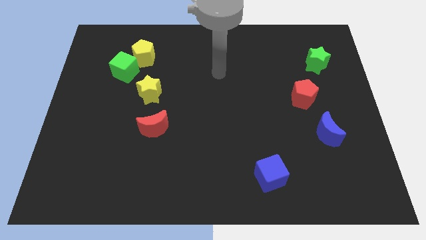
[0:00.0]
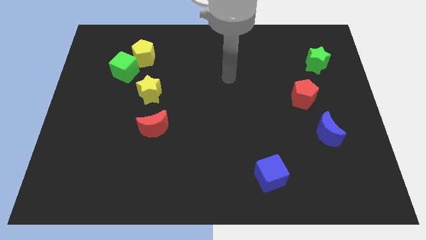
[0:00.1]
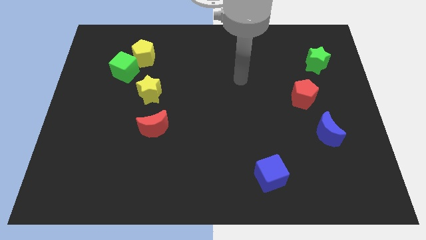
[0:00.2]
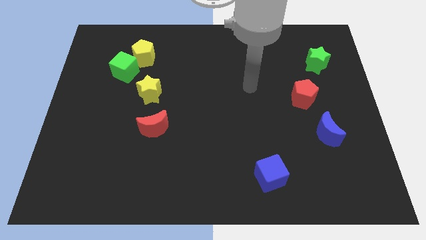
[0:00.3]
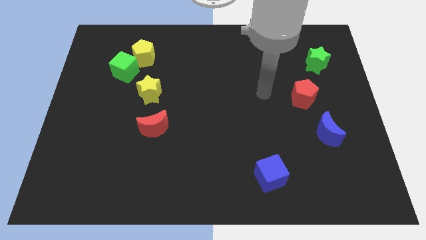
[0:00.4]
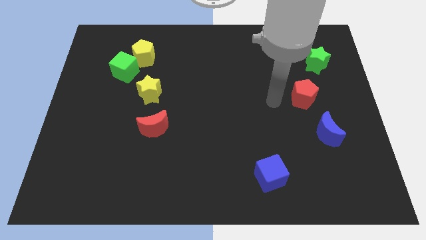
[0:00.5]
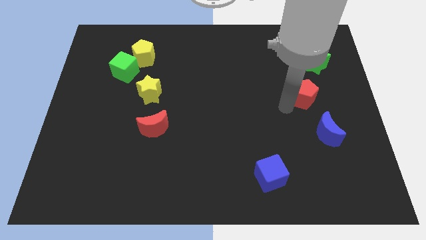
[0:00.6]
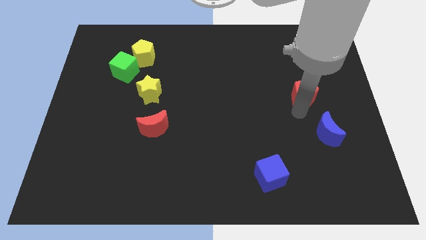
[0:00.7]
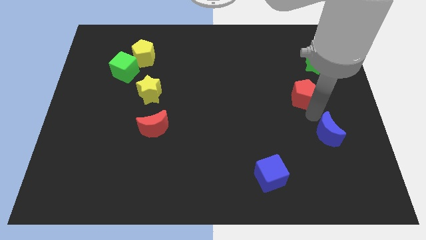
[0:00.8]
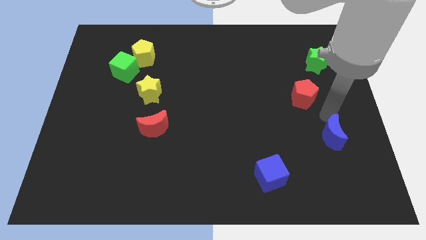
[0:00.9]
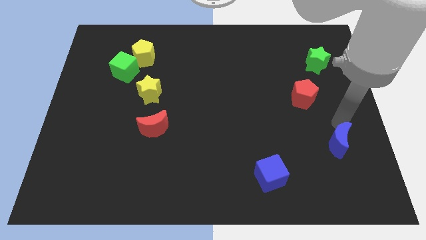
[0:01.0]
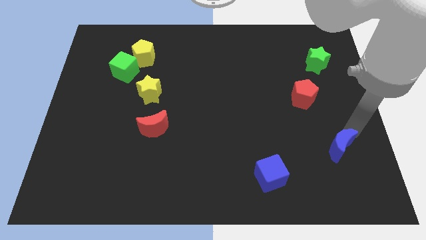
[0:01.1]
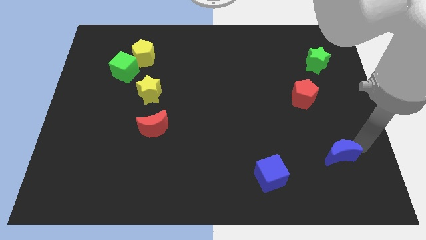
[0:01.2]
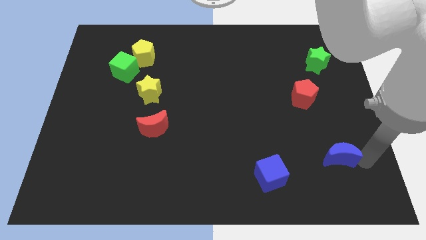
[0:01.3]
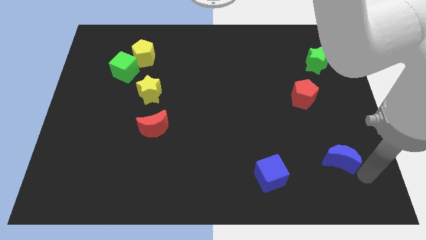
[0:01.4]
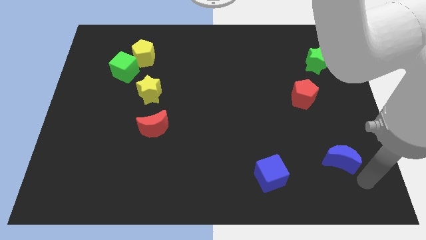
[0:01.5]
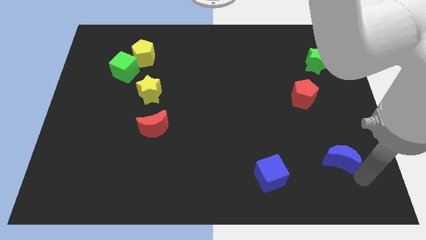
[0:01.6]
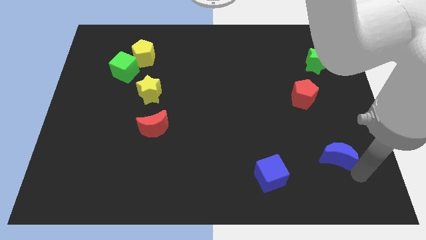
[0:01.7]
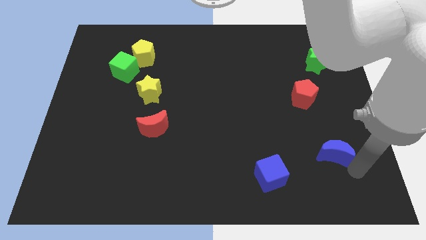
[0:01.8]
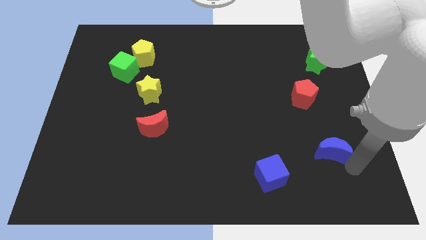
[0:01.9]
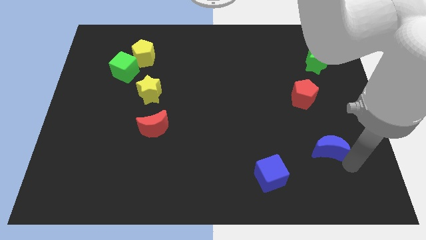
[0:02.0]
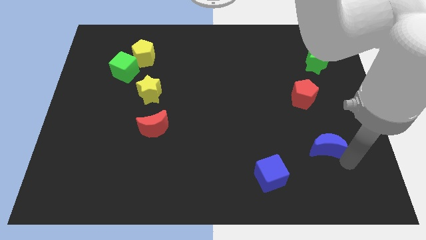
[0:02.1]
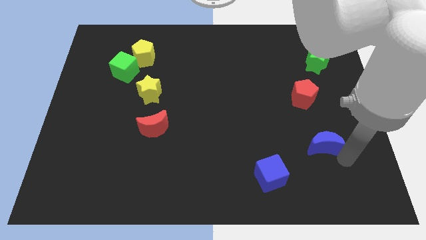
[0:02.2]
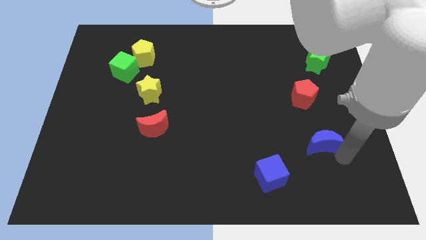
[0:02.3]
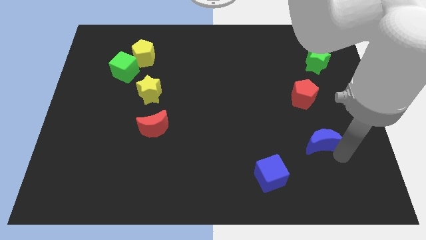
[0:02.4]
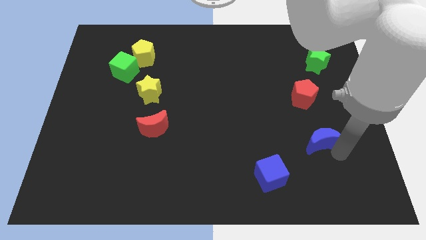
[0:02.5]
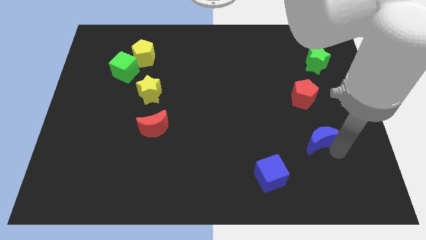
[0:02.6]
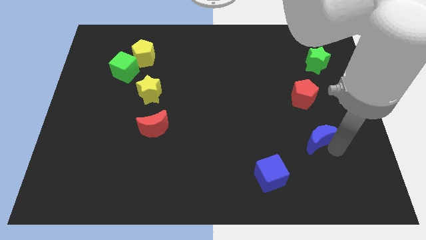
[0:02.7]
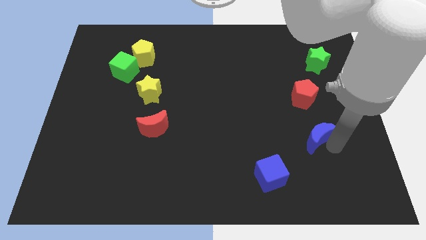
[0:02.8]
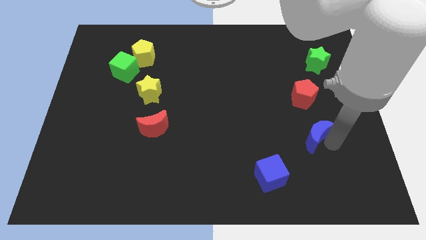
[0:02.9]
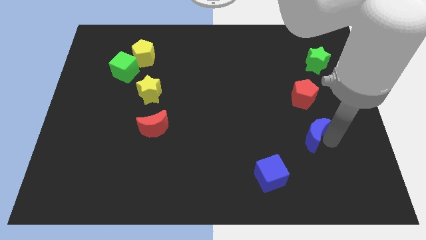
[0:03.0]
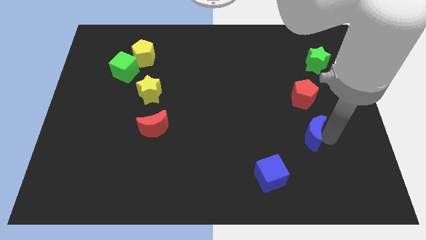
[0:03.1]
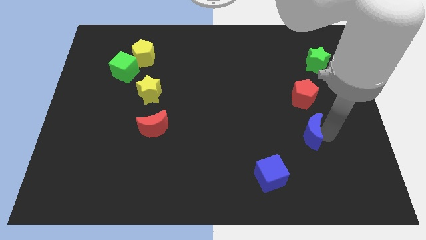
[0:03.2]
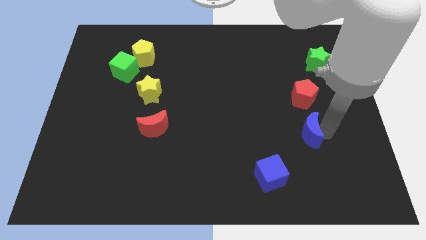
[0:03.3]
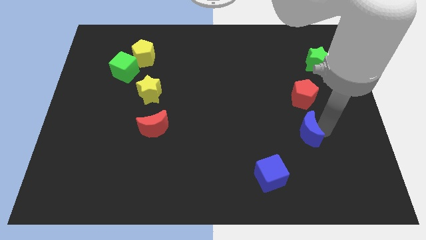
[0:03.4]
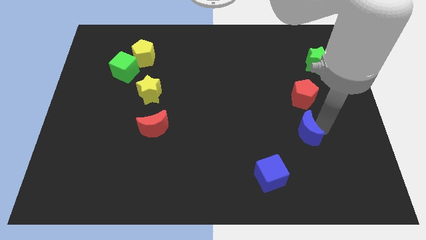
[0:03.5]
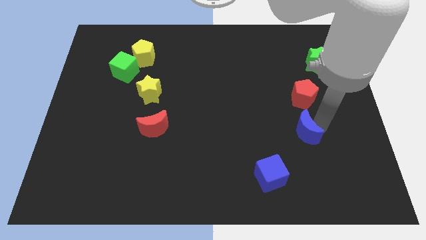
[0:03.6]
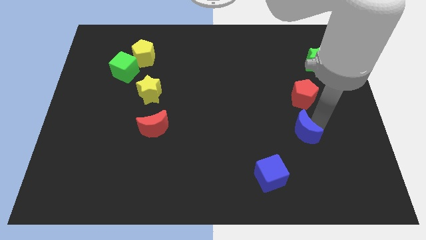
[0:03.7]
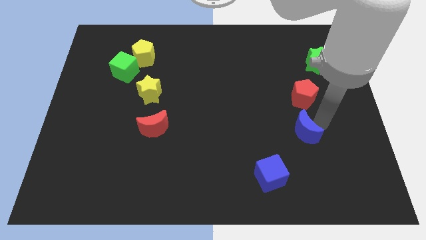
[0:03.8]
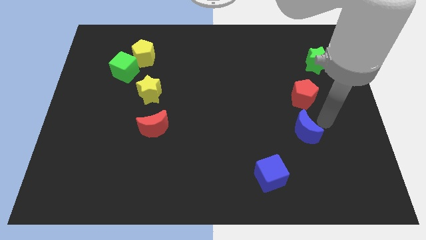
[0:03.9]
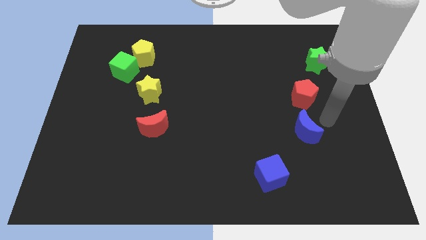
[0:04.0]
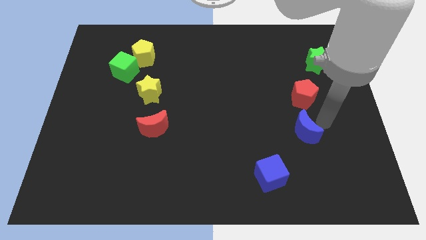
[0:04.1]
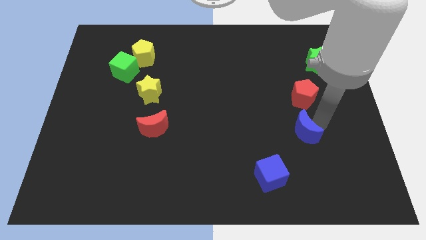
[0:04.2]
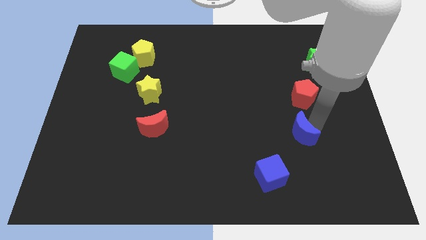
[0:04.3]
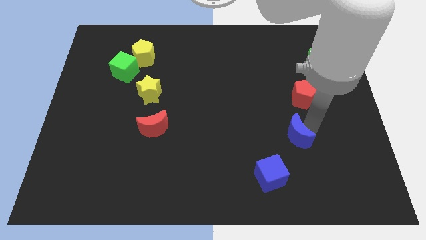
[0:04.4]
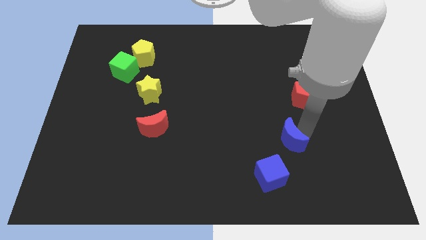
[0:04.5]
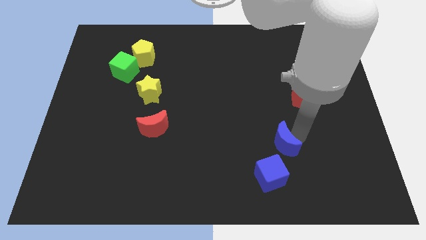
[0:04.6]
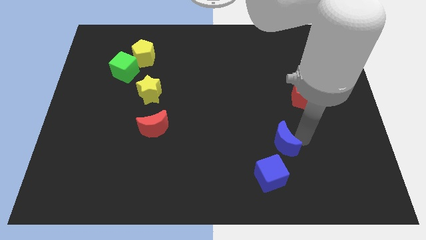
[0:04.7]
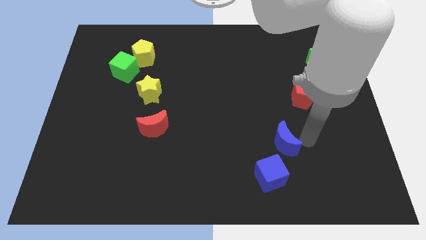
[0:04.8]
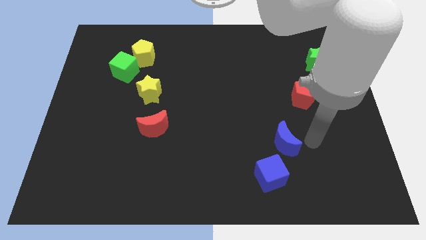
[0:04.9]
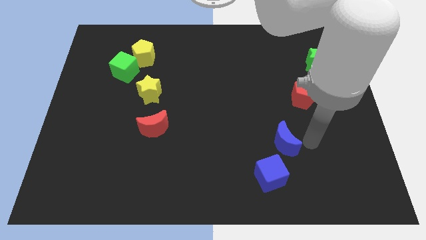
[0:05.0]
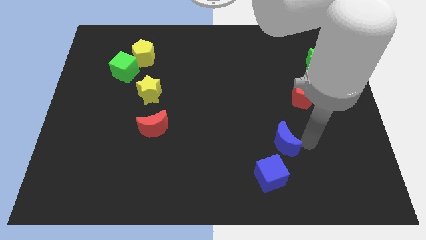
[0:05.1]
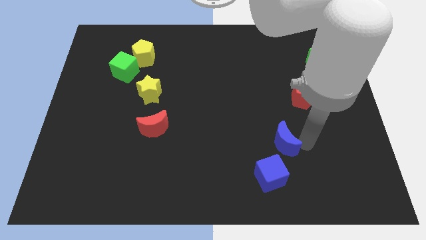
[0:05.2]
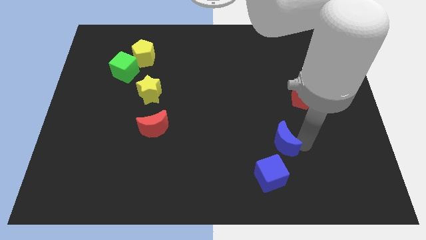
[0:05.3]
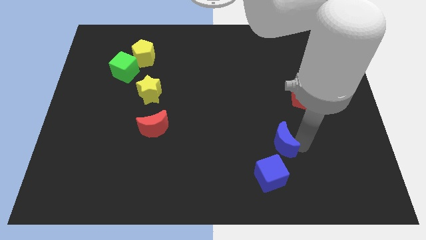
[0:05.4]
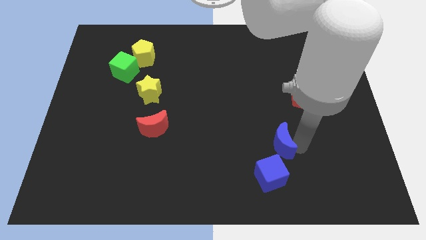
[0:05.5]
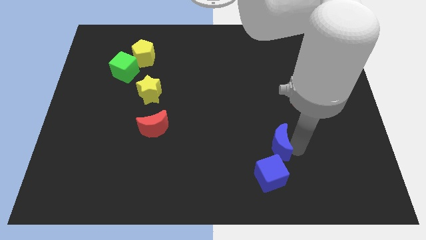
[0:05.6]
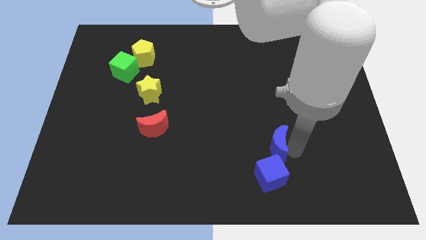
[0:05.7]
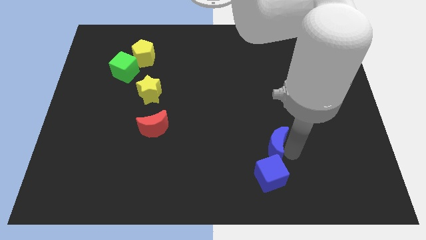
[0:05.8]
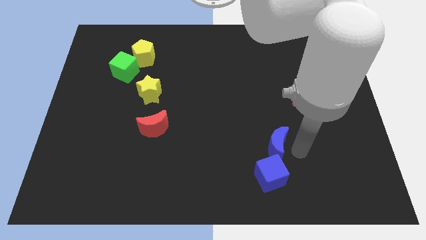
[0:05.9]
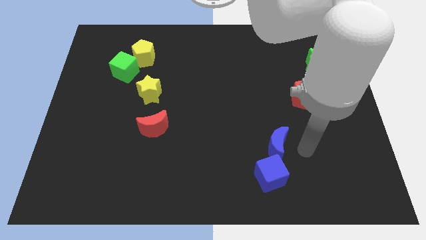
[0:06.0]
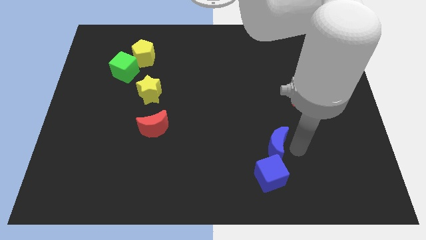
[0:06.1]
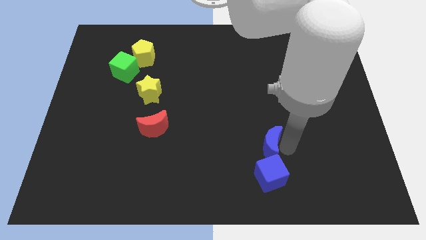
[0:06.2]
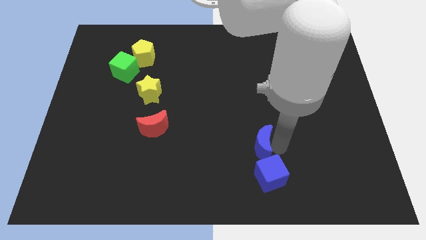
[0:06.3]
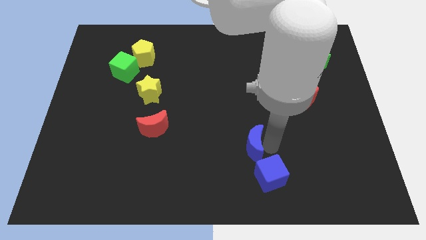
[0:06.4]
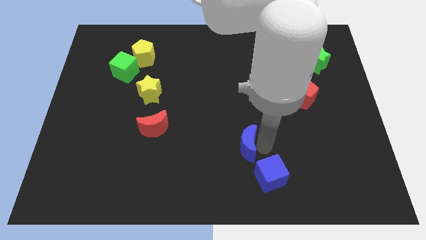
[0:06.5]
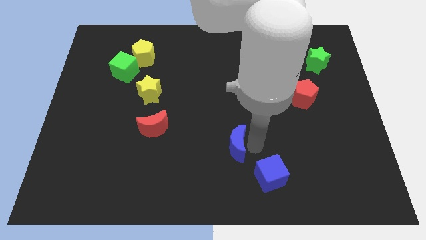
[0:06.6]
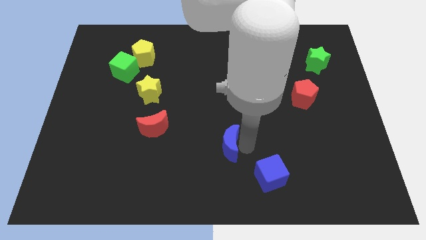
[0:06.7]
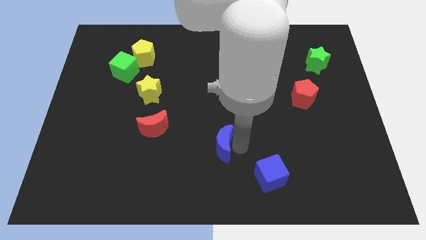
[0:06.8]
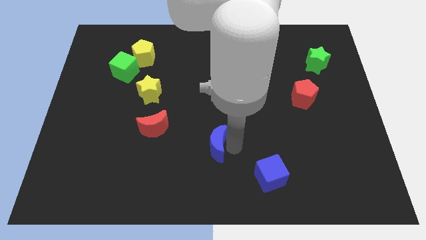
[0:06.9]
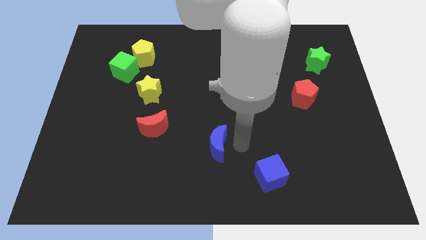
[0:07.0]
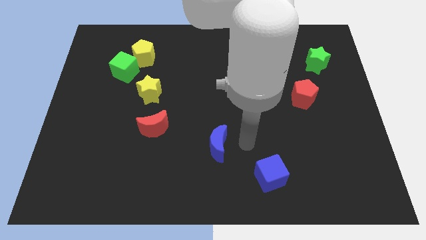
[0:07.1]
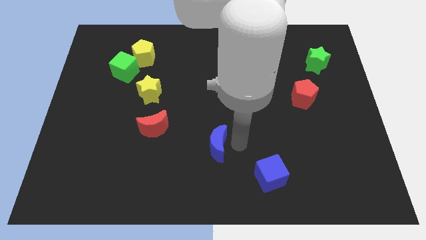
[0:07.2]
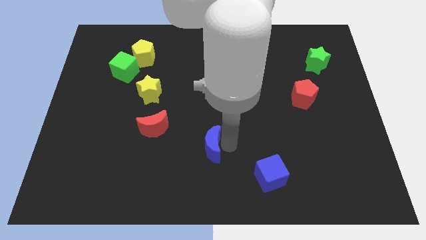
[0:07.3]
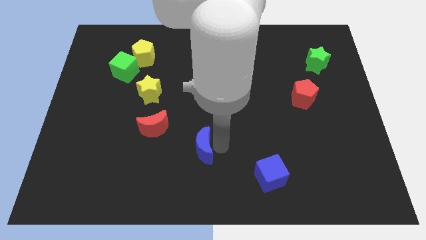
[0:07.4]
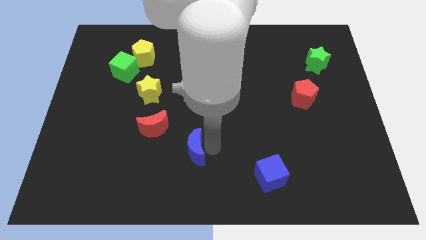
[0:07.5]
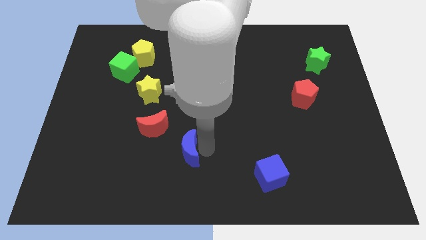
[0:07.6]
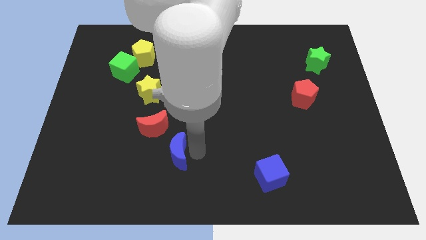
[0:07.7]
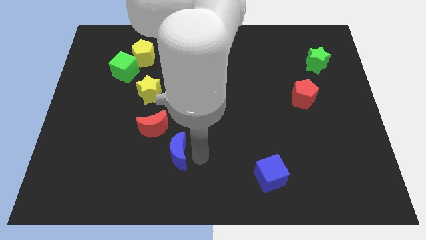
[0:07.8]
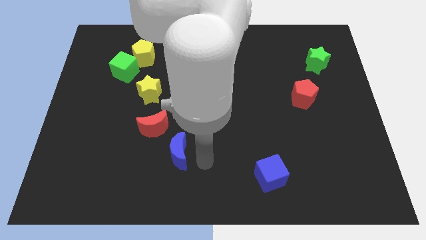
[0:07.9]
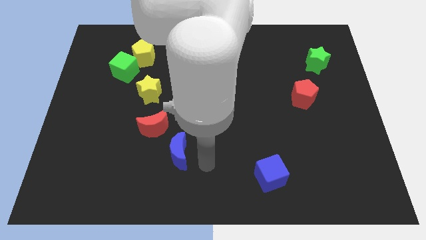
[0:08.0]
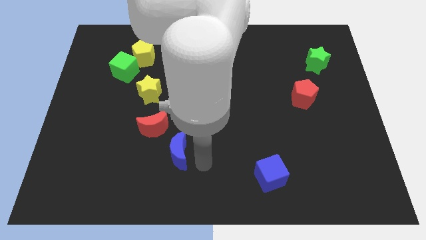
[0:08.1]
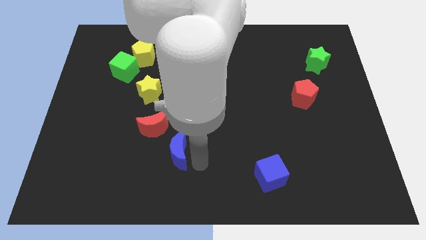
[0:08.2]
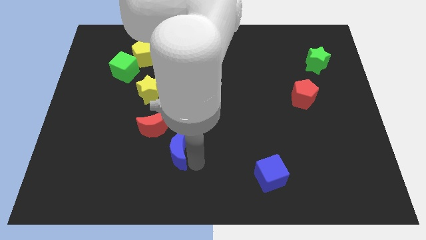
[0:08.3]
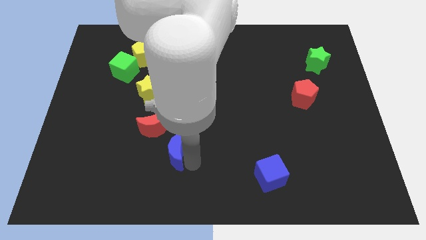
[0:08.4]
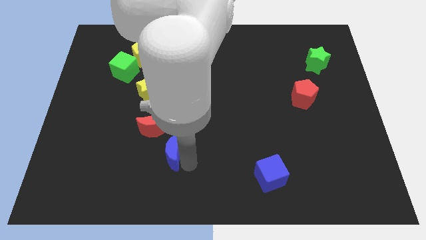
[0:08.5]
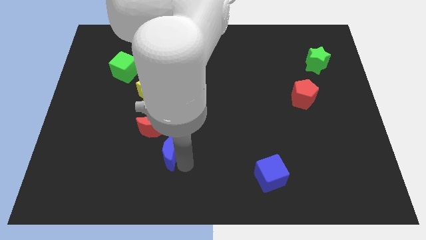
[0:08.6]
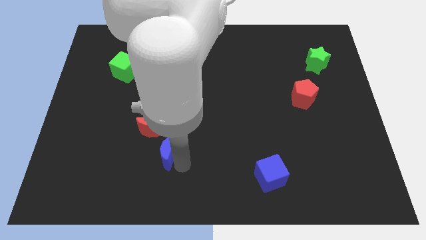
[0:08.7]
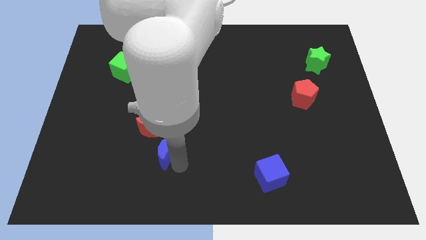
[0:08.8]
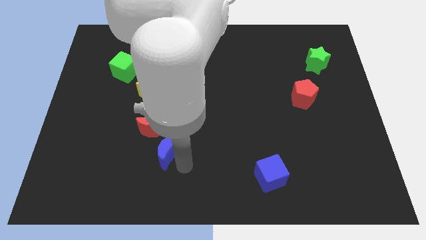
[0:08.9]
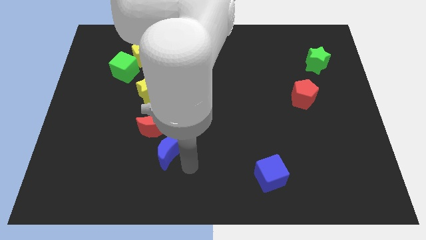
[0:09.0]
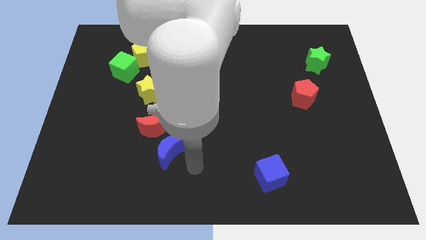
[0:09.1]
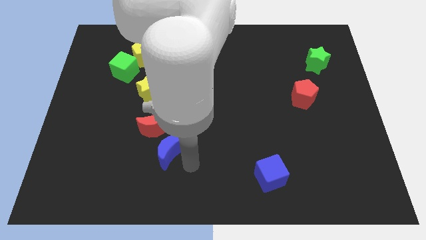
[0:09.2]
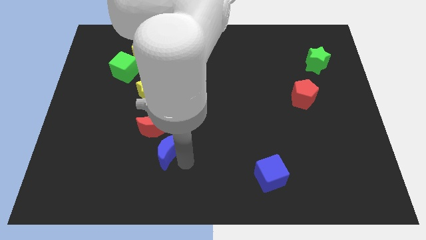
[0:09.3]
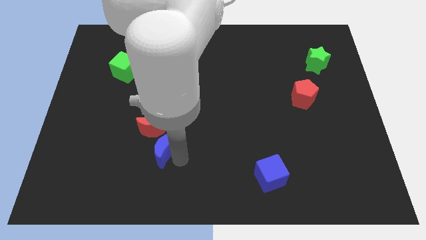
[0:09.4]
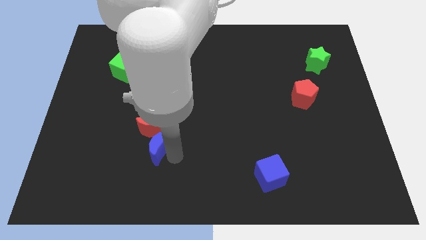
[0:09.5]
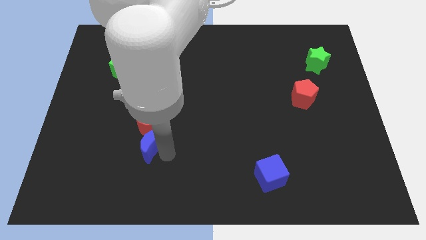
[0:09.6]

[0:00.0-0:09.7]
put the blue moon to the bottom of the yellow star
